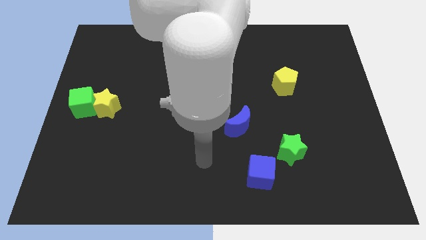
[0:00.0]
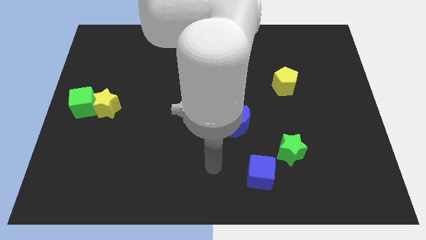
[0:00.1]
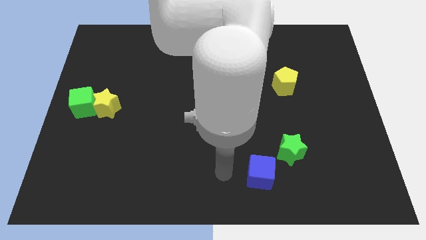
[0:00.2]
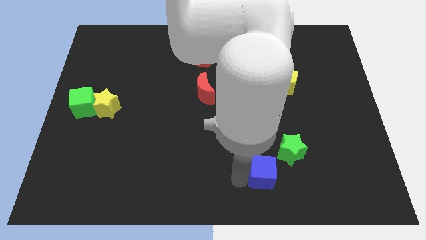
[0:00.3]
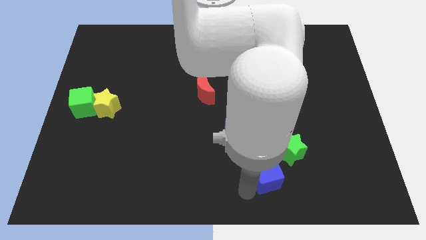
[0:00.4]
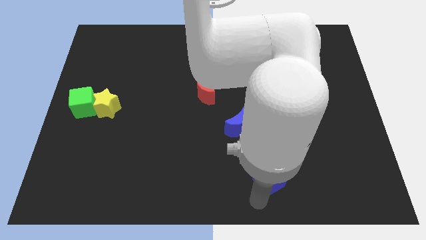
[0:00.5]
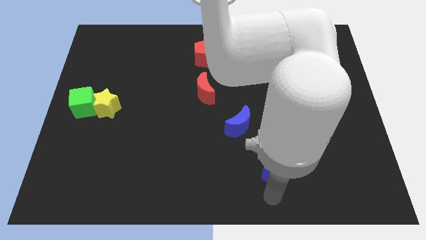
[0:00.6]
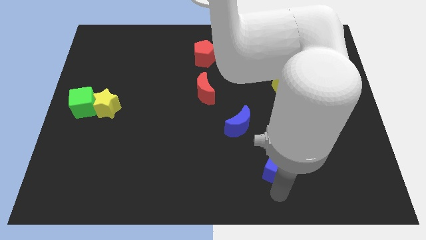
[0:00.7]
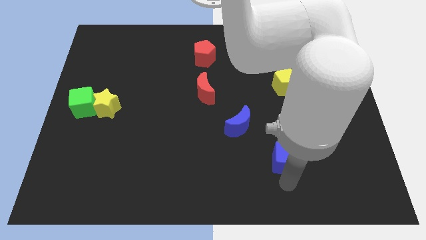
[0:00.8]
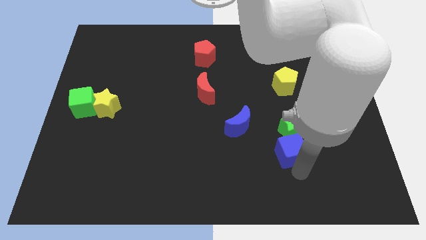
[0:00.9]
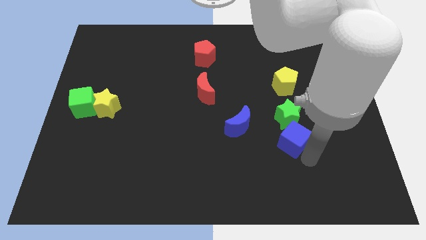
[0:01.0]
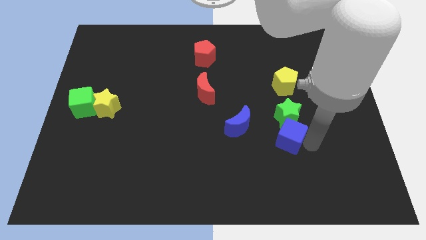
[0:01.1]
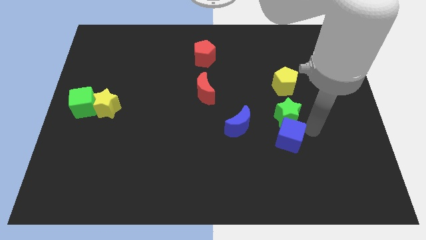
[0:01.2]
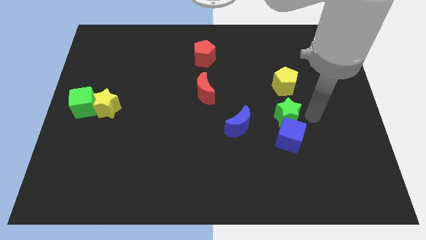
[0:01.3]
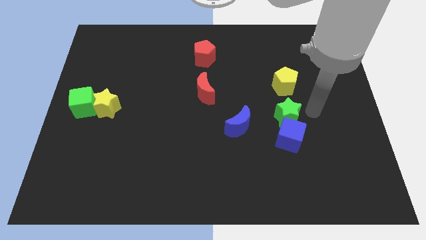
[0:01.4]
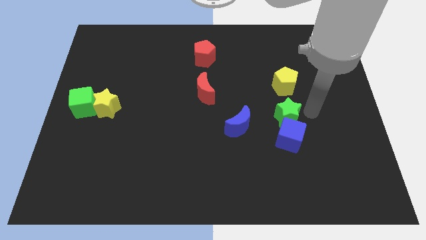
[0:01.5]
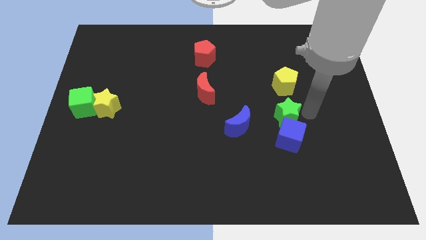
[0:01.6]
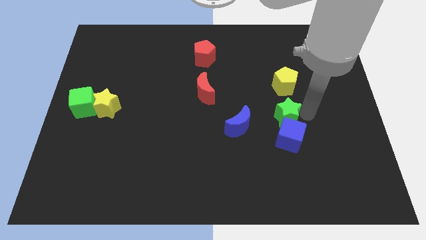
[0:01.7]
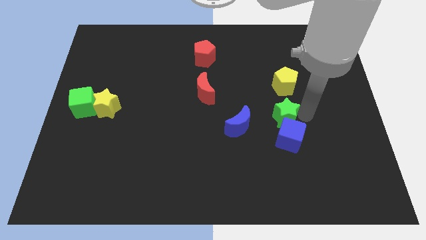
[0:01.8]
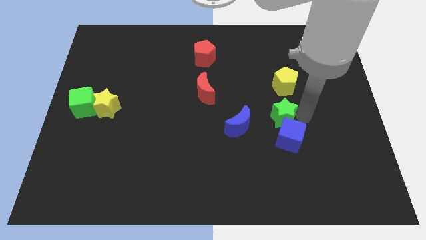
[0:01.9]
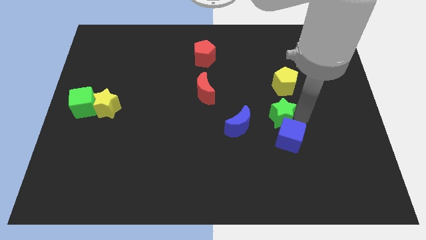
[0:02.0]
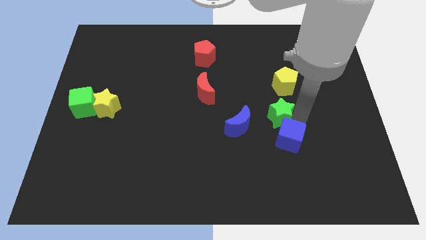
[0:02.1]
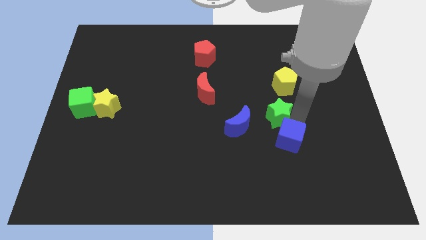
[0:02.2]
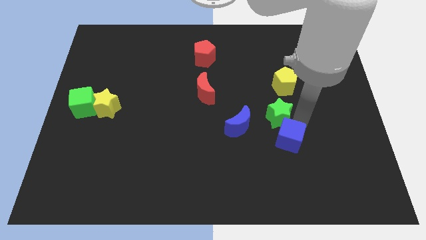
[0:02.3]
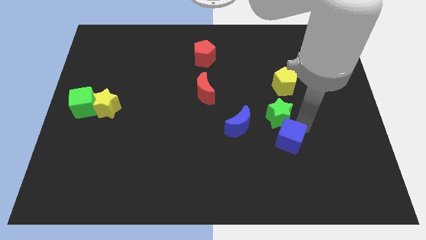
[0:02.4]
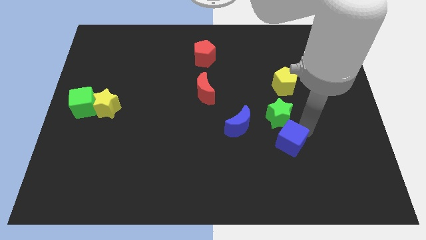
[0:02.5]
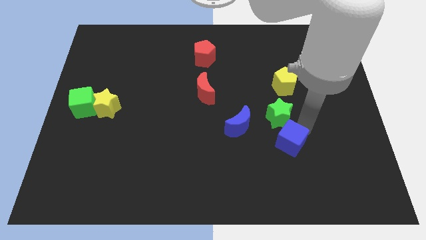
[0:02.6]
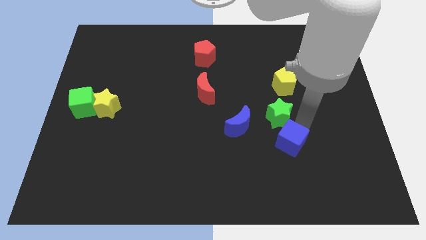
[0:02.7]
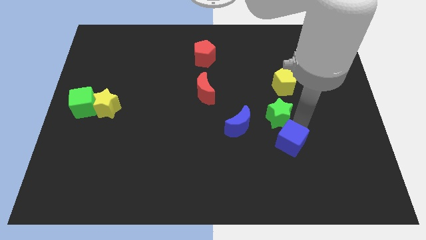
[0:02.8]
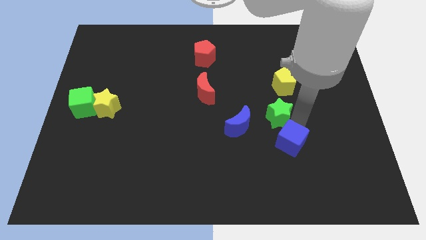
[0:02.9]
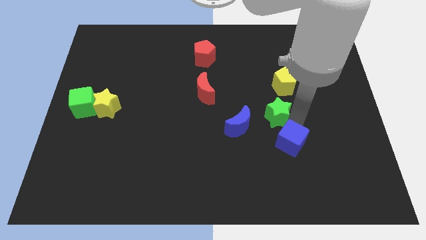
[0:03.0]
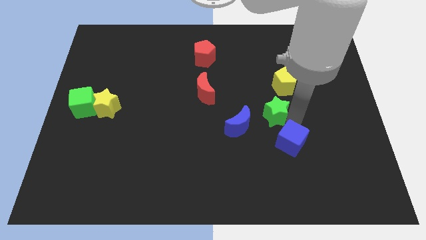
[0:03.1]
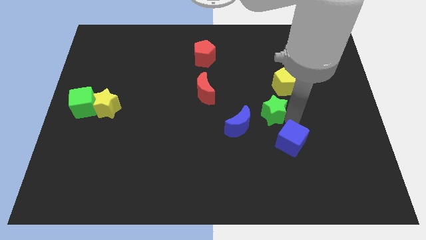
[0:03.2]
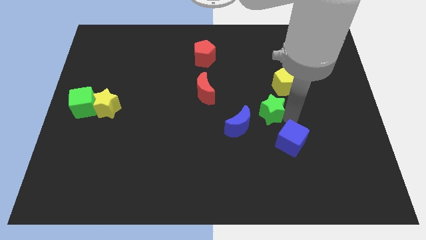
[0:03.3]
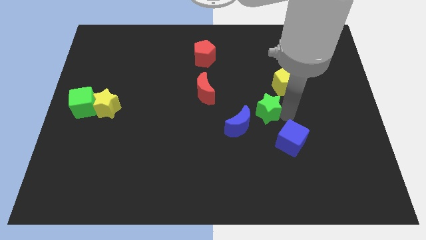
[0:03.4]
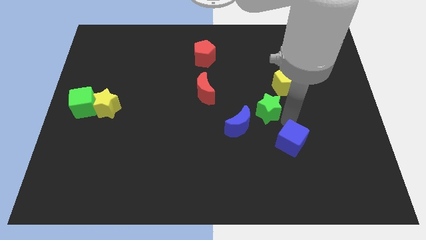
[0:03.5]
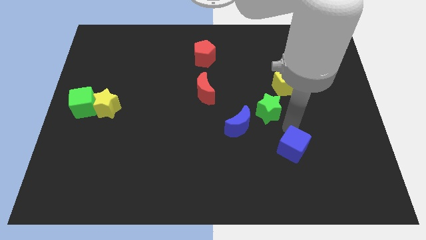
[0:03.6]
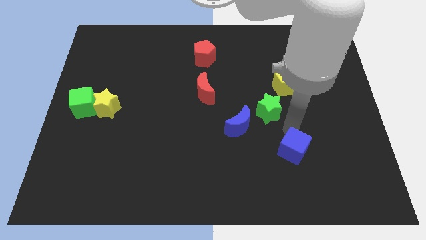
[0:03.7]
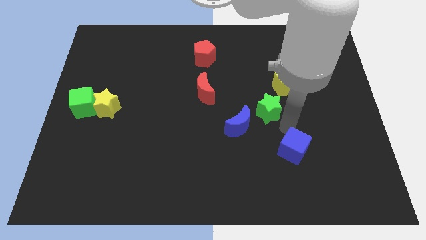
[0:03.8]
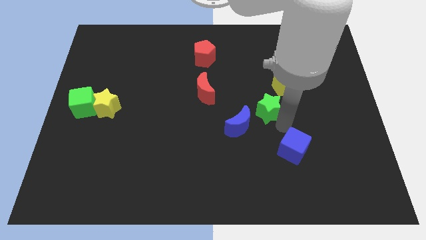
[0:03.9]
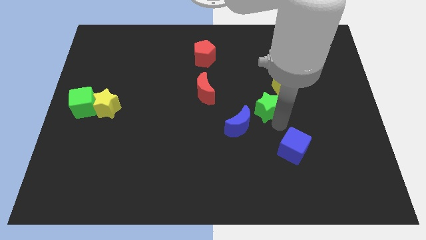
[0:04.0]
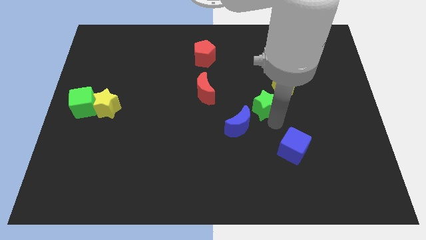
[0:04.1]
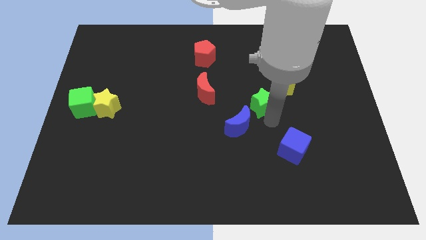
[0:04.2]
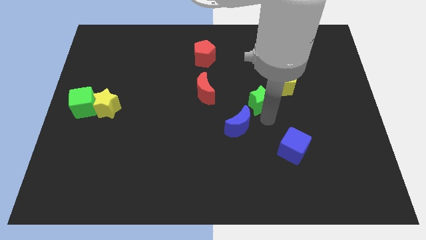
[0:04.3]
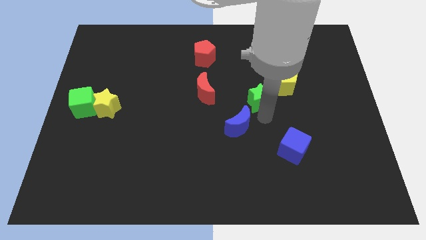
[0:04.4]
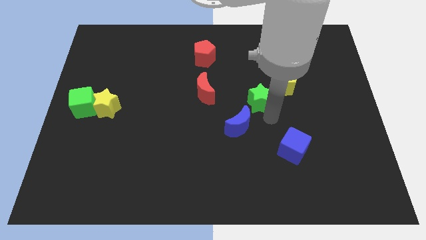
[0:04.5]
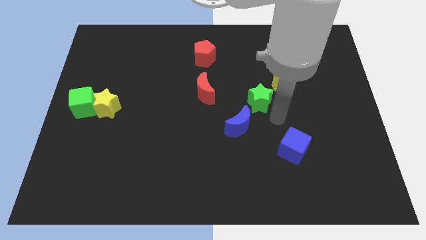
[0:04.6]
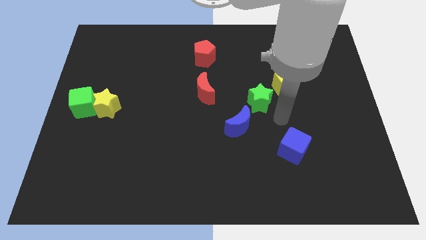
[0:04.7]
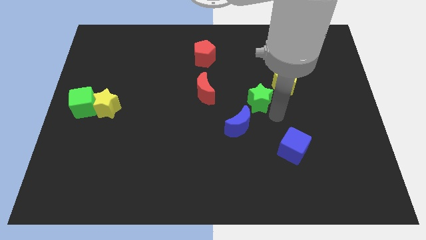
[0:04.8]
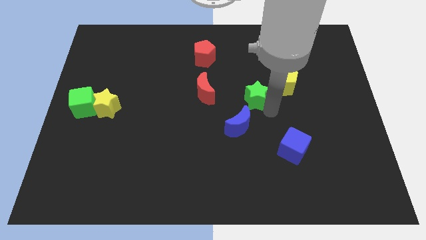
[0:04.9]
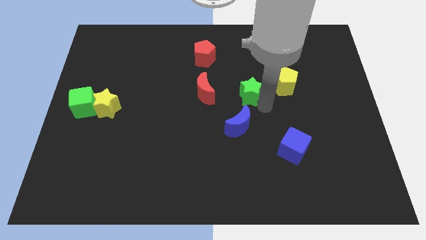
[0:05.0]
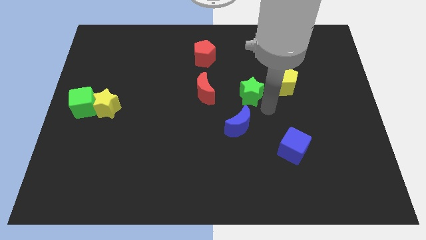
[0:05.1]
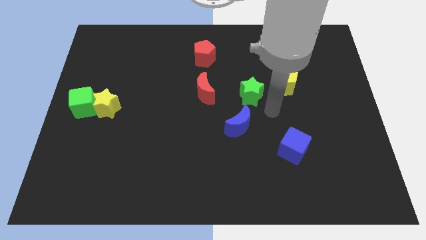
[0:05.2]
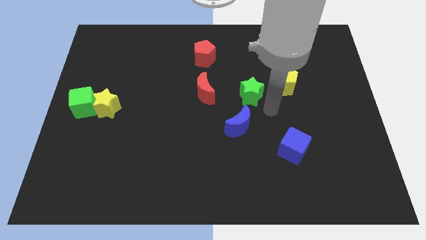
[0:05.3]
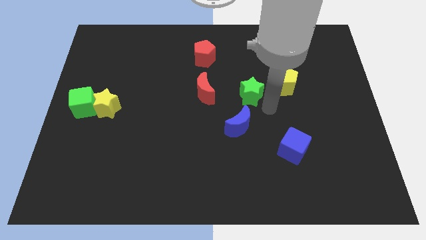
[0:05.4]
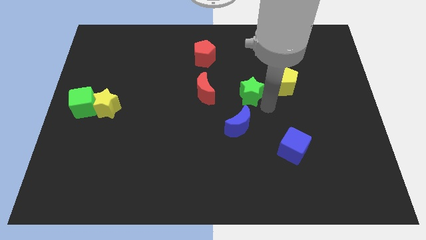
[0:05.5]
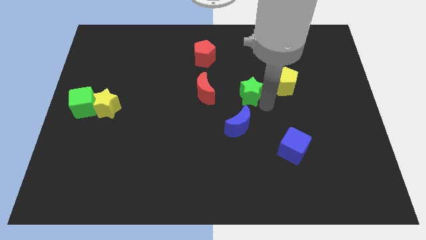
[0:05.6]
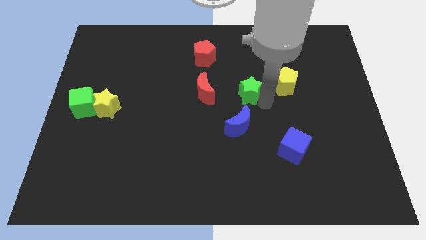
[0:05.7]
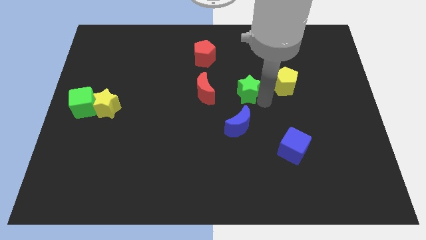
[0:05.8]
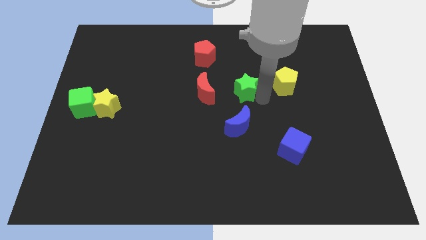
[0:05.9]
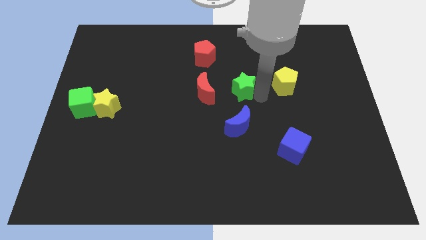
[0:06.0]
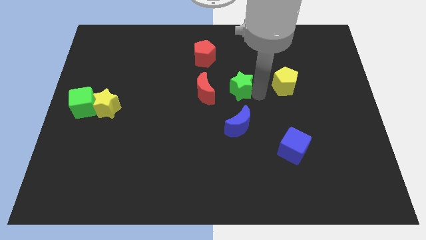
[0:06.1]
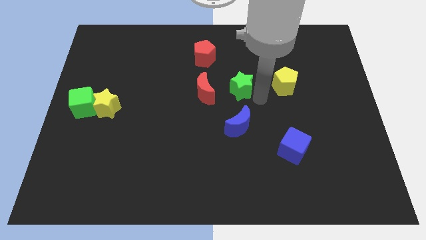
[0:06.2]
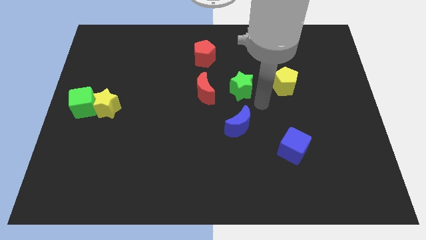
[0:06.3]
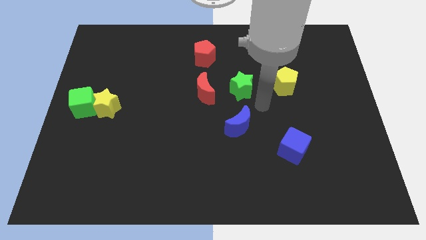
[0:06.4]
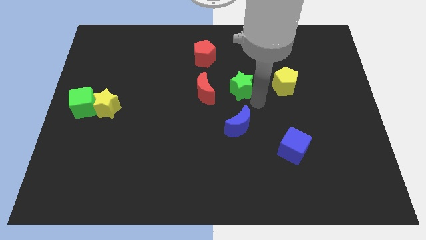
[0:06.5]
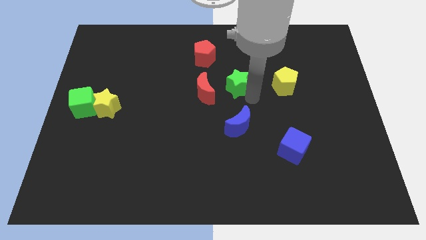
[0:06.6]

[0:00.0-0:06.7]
slide the green star to the top right of the red moon
